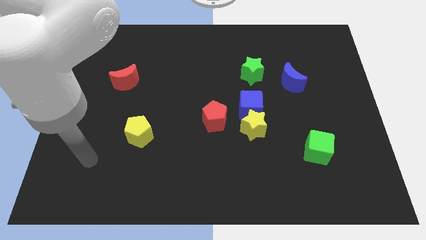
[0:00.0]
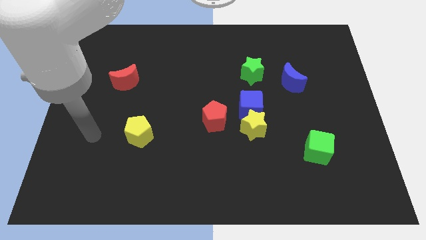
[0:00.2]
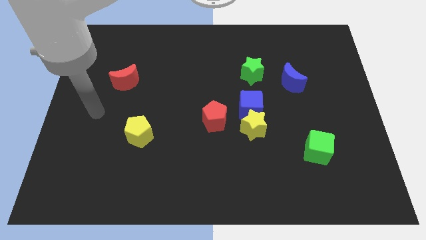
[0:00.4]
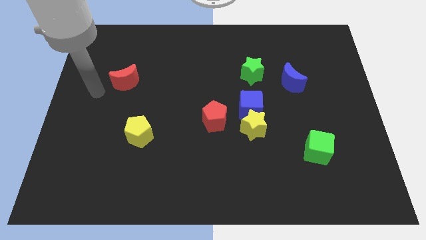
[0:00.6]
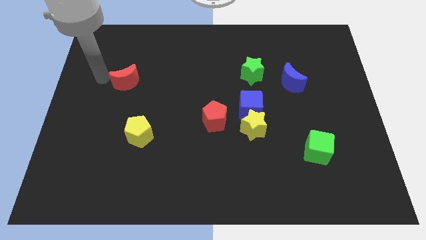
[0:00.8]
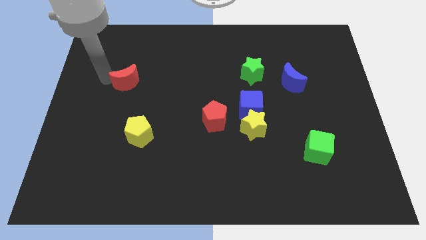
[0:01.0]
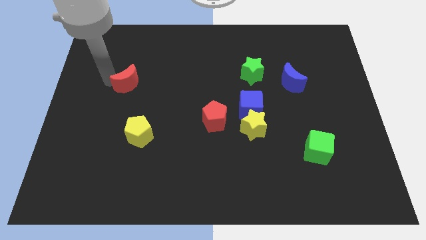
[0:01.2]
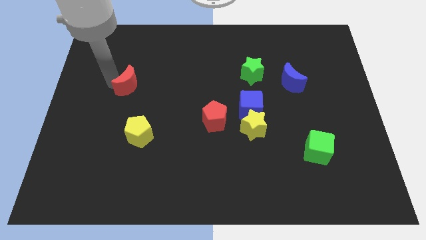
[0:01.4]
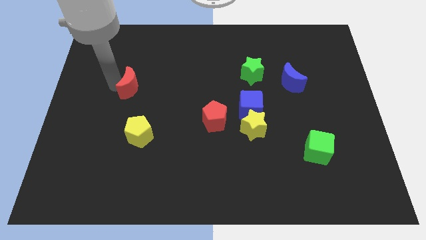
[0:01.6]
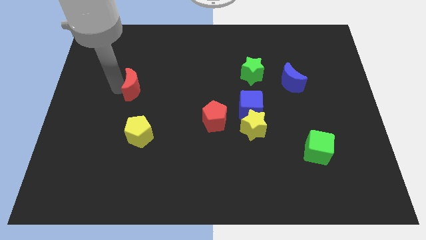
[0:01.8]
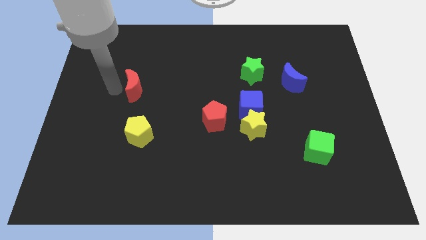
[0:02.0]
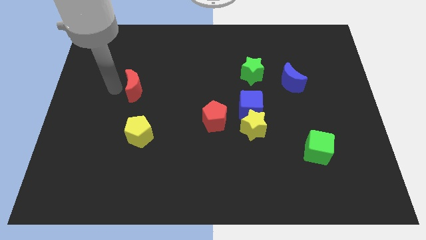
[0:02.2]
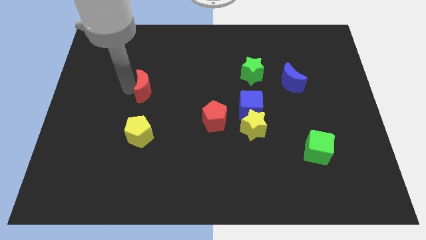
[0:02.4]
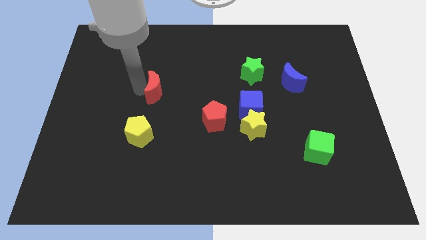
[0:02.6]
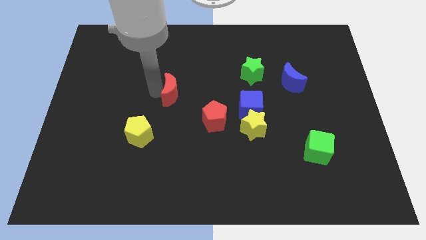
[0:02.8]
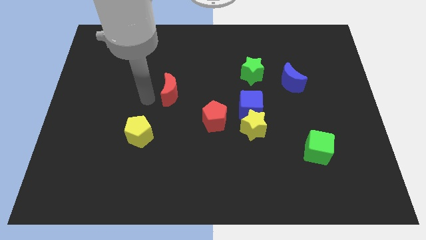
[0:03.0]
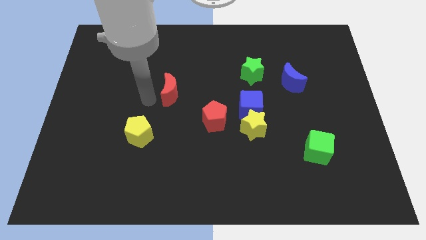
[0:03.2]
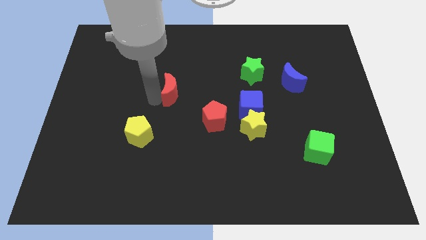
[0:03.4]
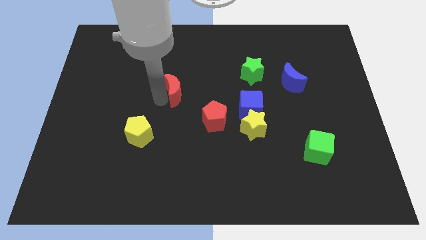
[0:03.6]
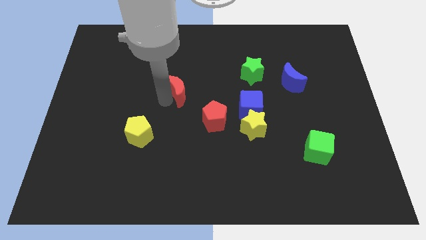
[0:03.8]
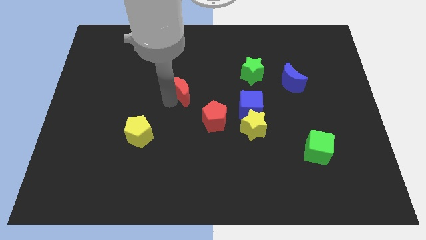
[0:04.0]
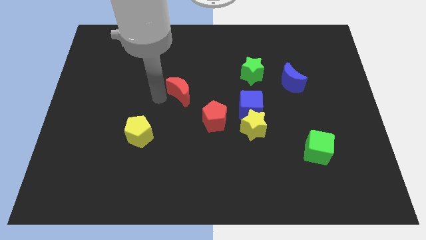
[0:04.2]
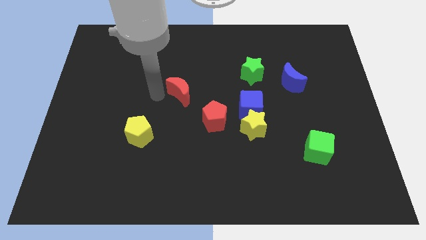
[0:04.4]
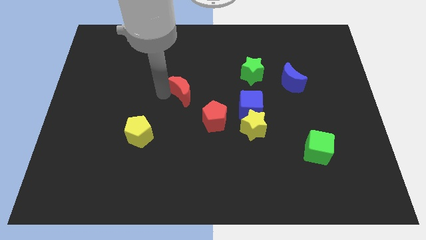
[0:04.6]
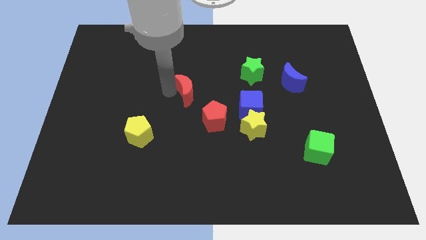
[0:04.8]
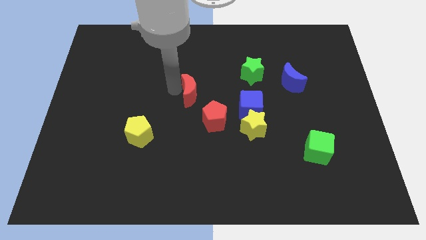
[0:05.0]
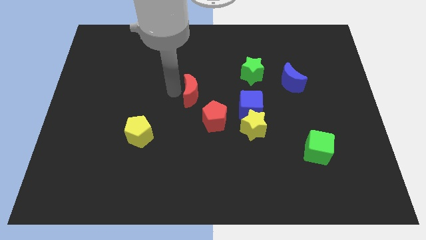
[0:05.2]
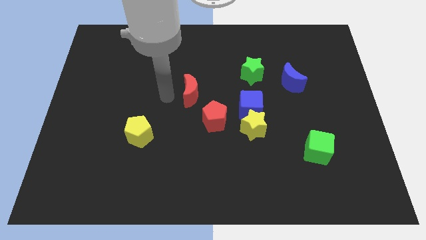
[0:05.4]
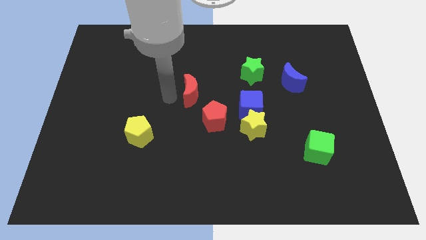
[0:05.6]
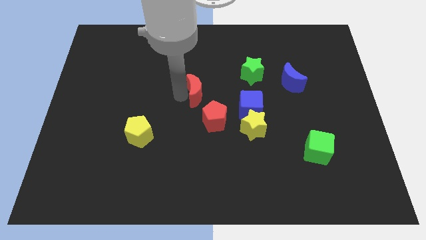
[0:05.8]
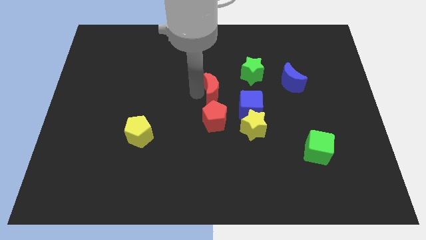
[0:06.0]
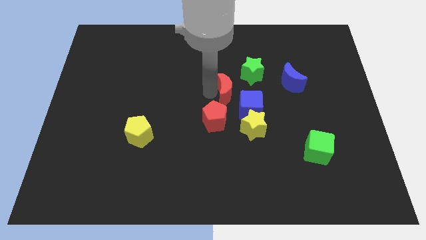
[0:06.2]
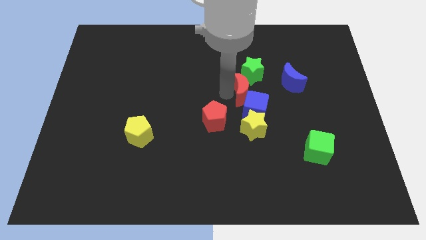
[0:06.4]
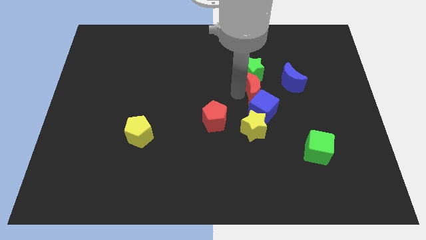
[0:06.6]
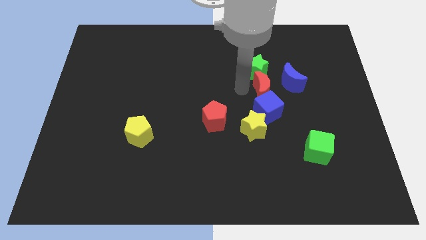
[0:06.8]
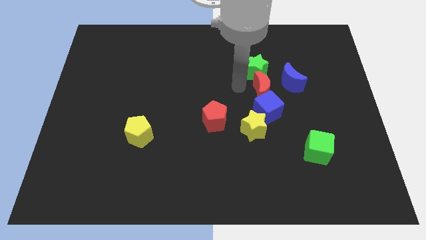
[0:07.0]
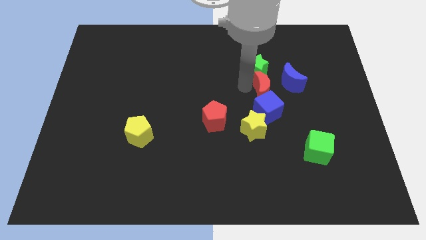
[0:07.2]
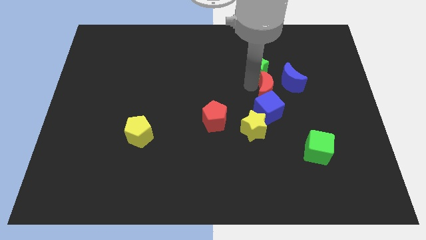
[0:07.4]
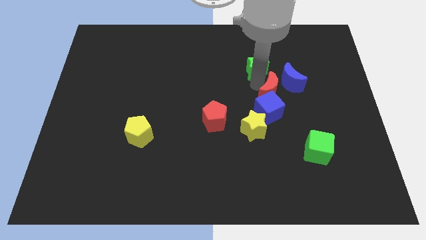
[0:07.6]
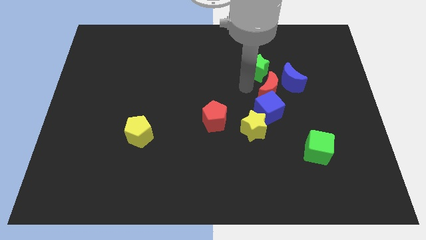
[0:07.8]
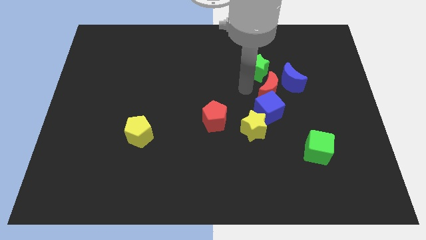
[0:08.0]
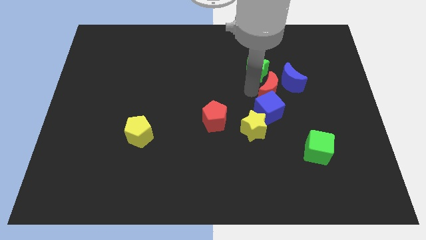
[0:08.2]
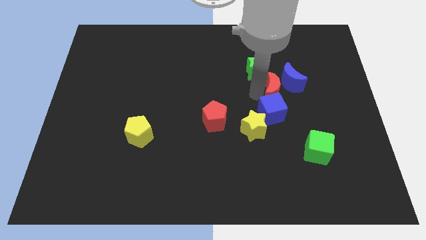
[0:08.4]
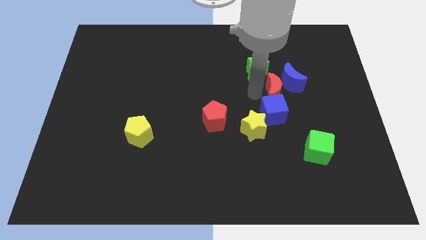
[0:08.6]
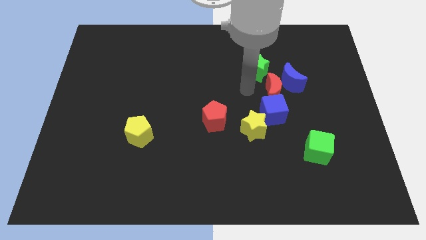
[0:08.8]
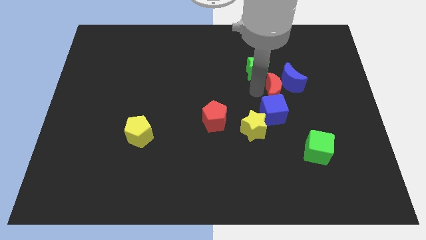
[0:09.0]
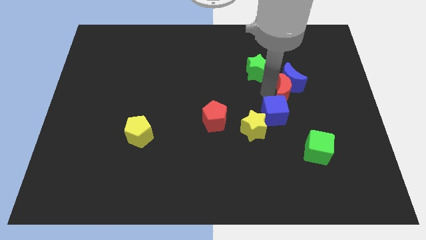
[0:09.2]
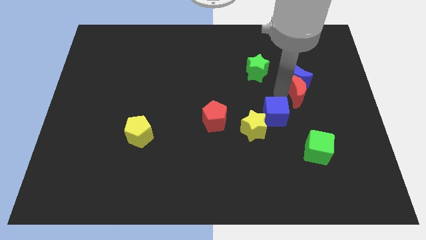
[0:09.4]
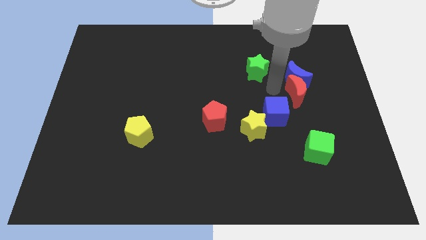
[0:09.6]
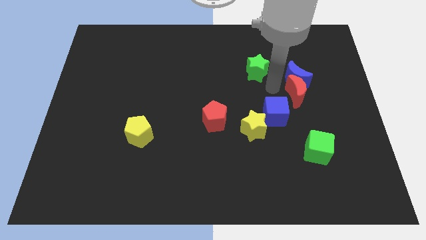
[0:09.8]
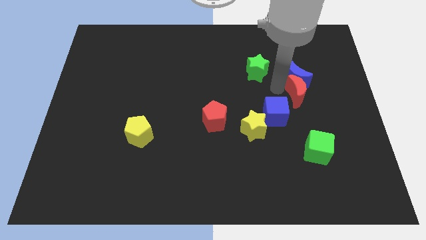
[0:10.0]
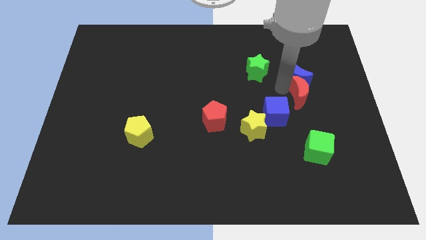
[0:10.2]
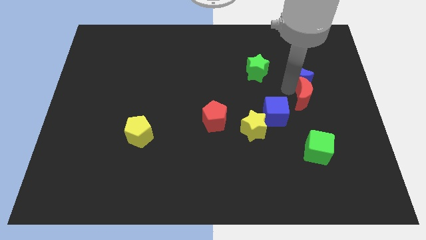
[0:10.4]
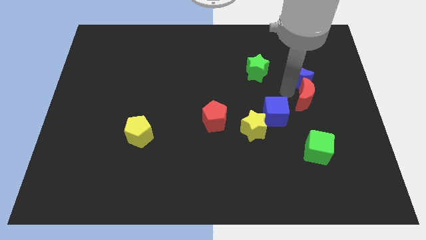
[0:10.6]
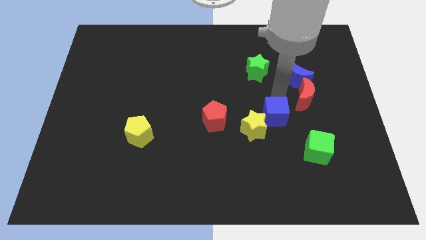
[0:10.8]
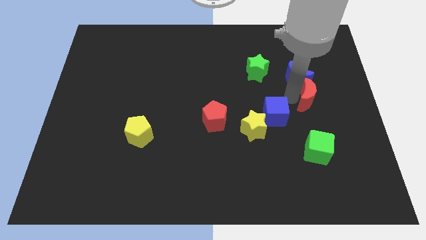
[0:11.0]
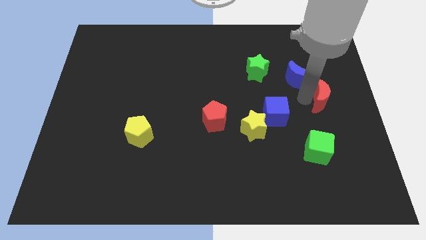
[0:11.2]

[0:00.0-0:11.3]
slide the red moon to the center right
